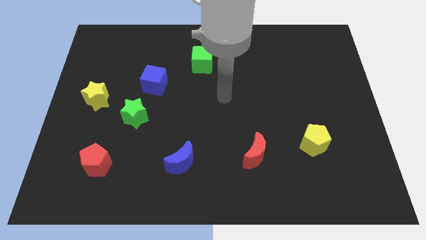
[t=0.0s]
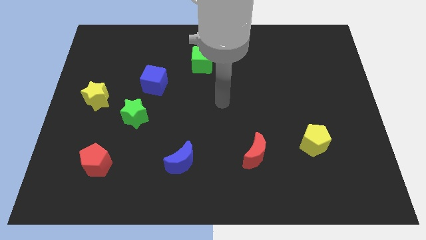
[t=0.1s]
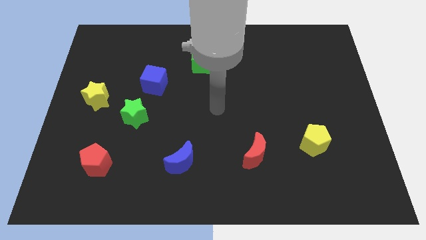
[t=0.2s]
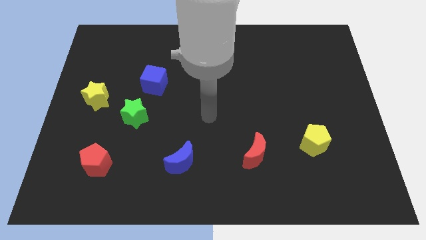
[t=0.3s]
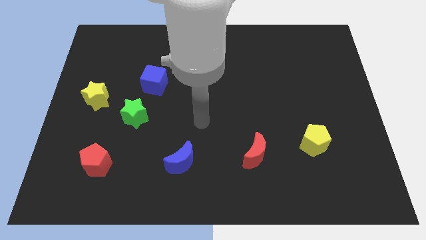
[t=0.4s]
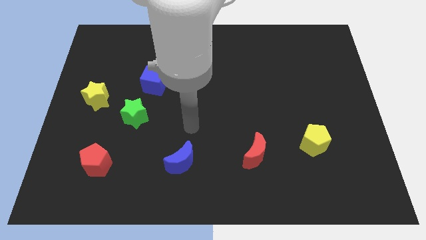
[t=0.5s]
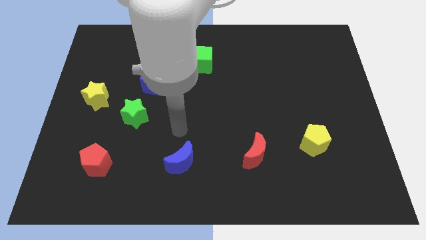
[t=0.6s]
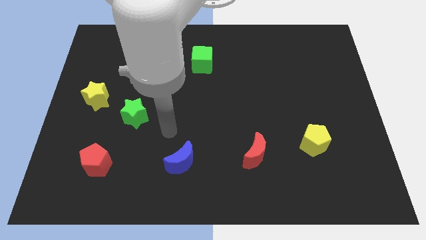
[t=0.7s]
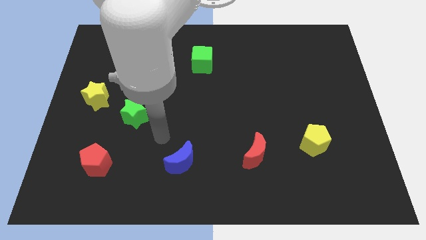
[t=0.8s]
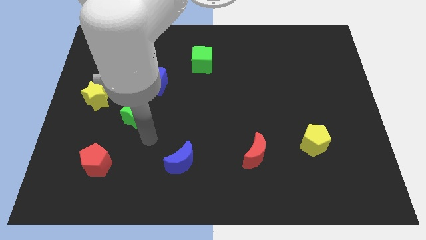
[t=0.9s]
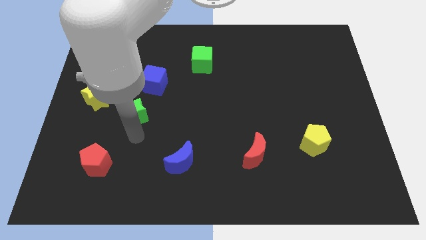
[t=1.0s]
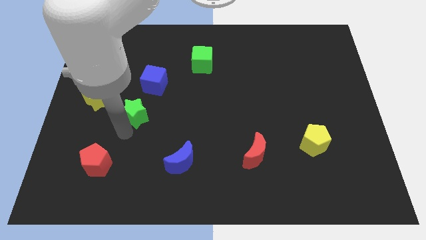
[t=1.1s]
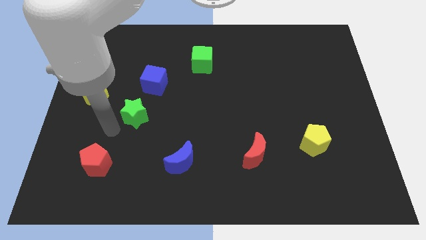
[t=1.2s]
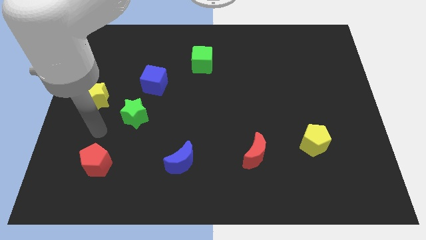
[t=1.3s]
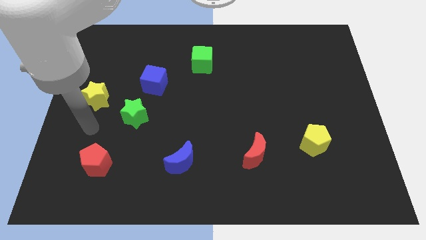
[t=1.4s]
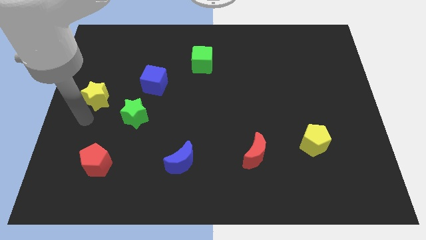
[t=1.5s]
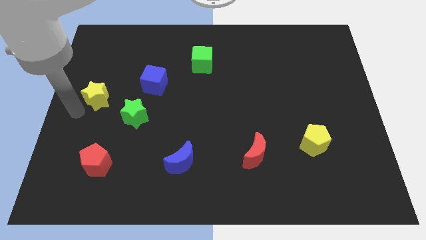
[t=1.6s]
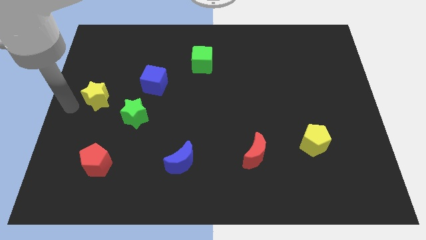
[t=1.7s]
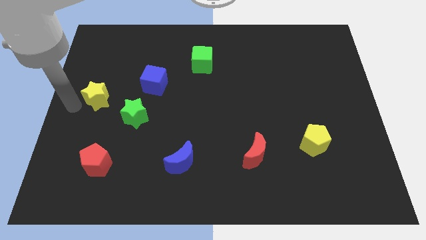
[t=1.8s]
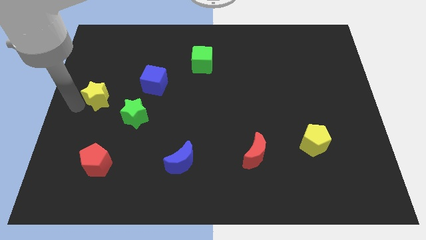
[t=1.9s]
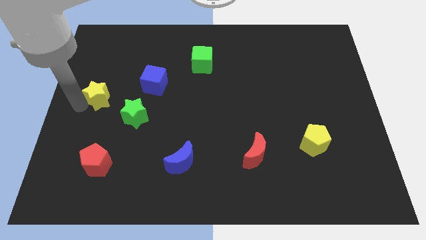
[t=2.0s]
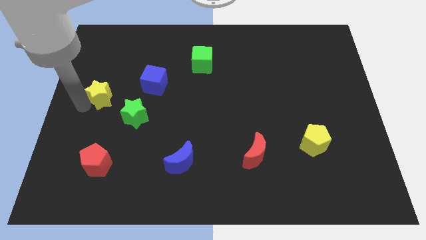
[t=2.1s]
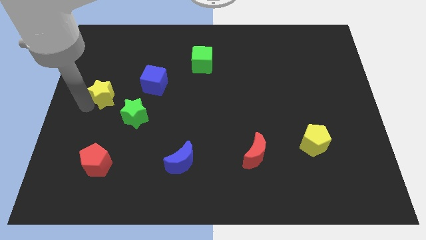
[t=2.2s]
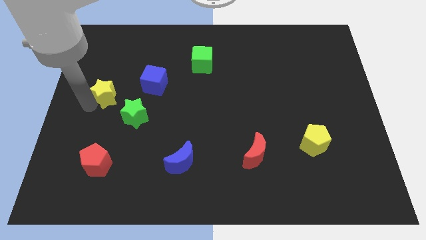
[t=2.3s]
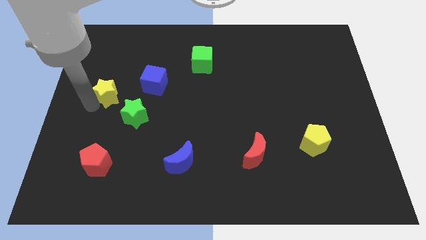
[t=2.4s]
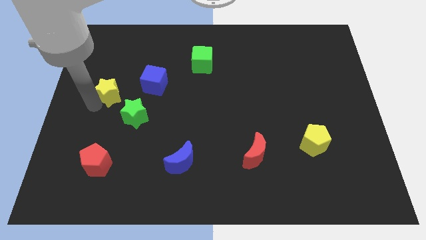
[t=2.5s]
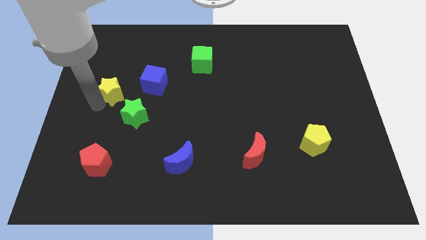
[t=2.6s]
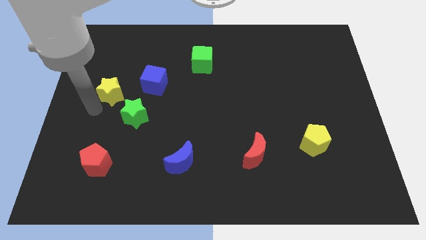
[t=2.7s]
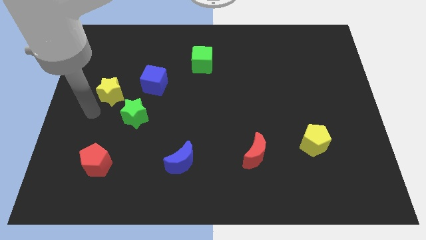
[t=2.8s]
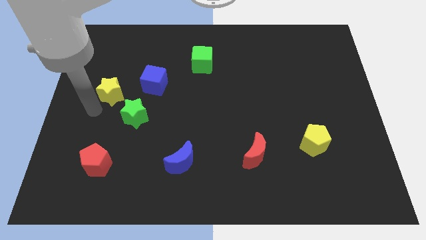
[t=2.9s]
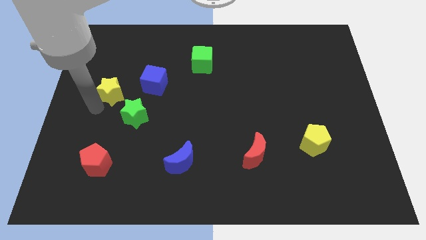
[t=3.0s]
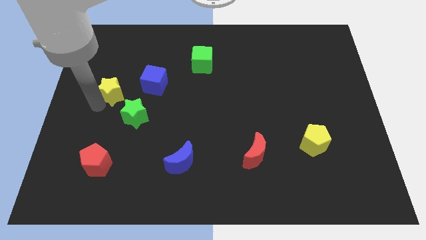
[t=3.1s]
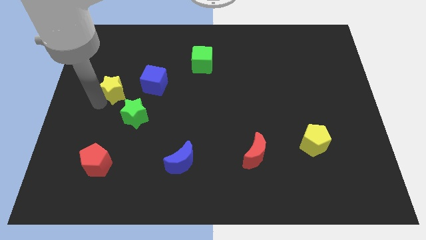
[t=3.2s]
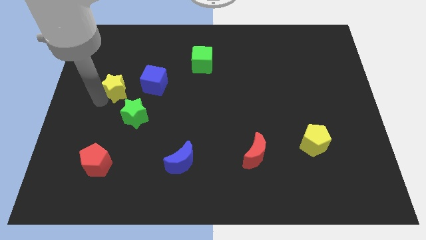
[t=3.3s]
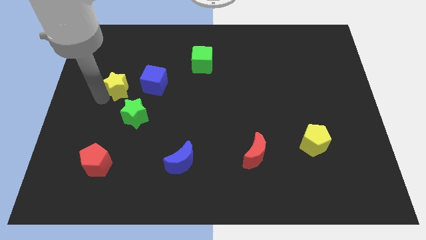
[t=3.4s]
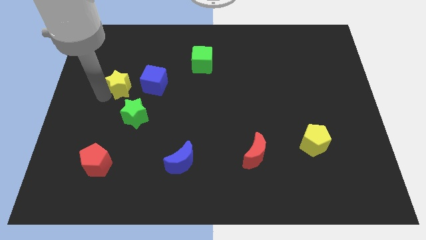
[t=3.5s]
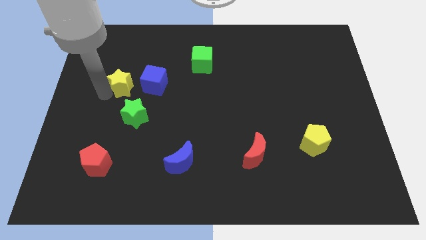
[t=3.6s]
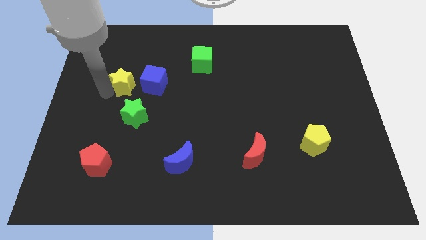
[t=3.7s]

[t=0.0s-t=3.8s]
slightly push the yellow star up and to the right diagonally

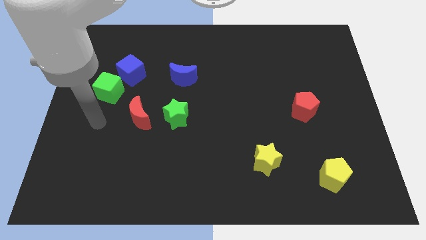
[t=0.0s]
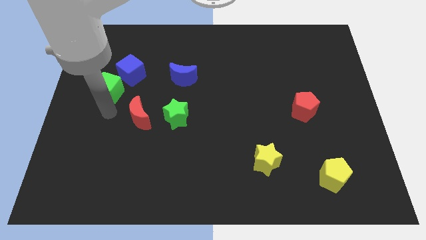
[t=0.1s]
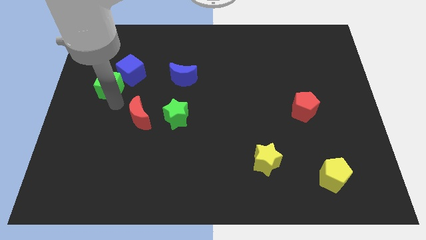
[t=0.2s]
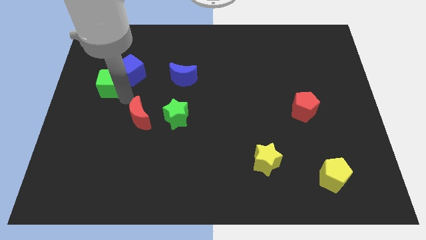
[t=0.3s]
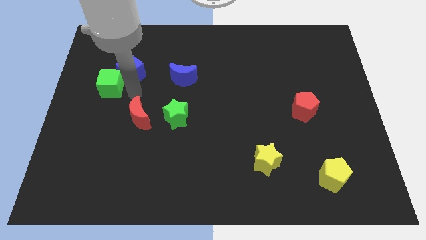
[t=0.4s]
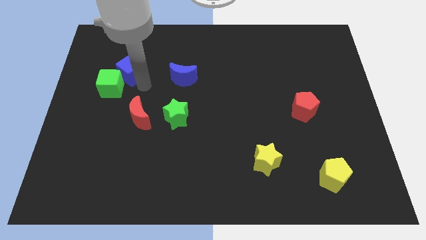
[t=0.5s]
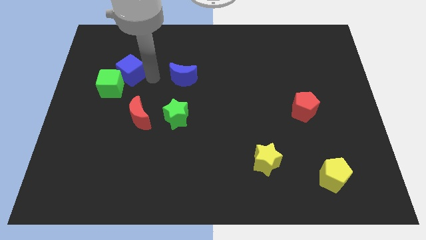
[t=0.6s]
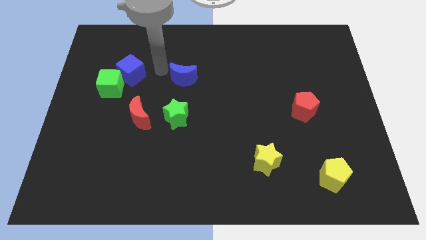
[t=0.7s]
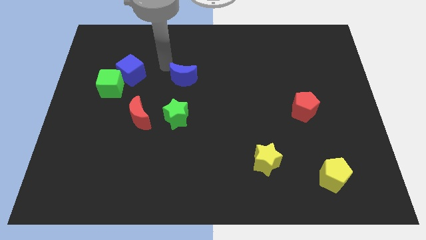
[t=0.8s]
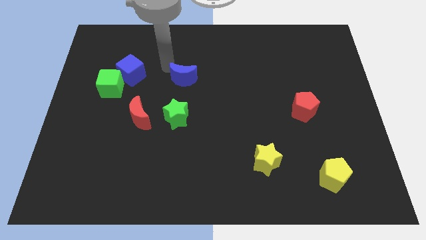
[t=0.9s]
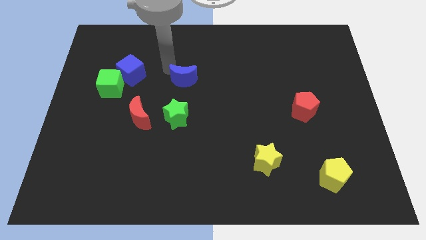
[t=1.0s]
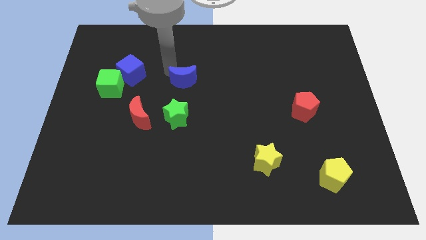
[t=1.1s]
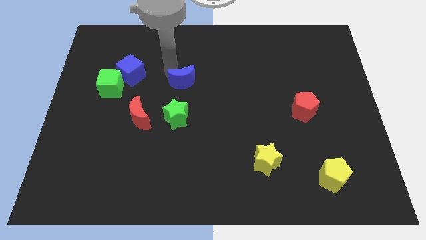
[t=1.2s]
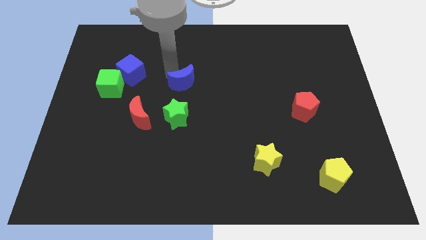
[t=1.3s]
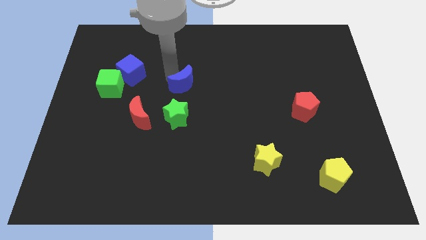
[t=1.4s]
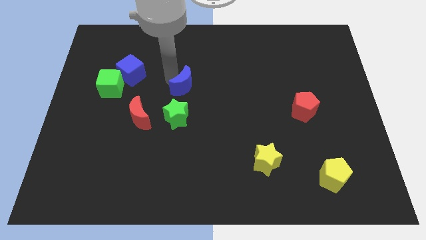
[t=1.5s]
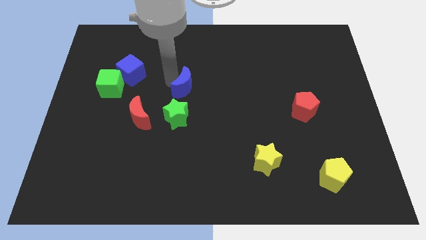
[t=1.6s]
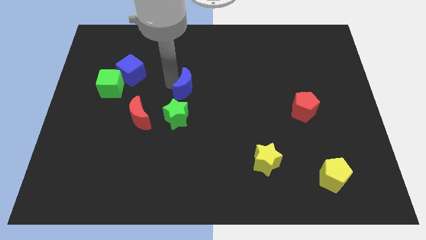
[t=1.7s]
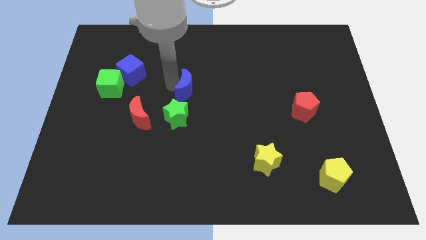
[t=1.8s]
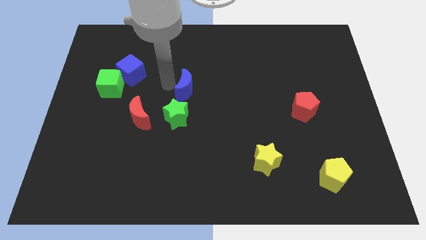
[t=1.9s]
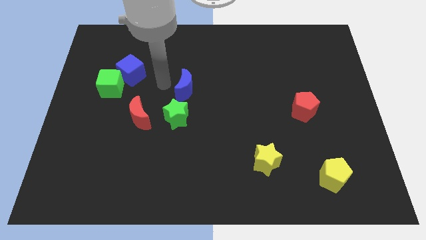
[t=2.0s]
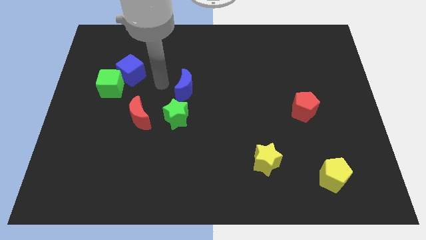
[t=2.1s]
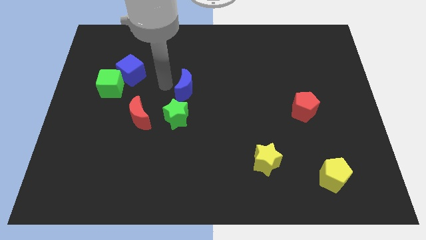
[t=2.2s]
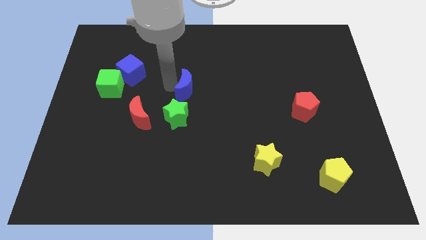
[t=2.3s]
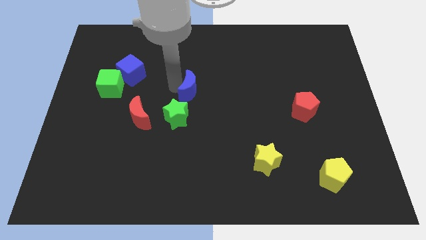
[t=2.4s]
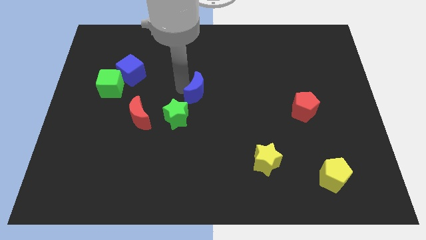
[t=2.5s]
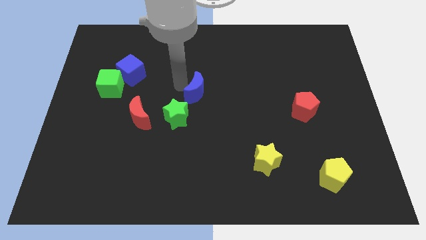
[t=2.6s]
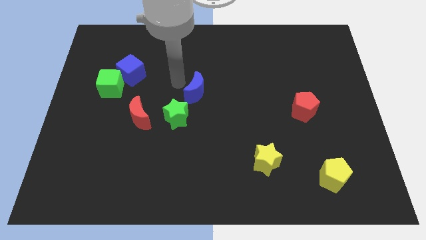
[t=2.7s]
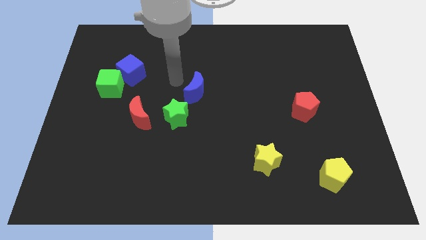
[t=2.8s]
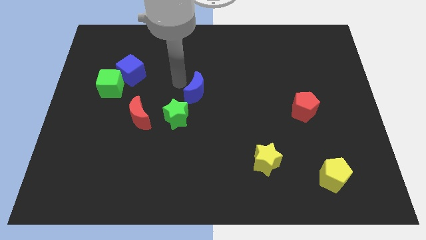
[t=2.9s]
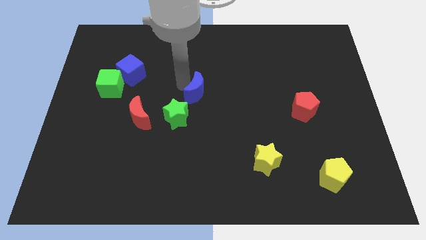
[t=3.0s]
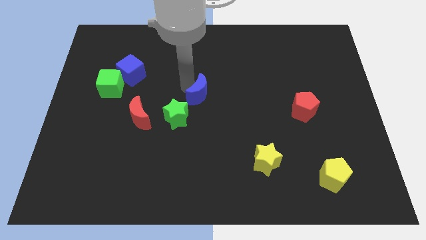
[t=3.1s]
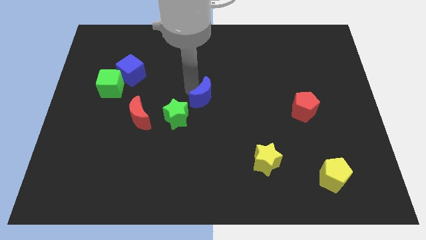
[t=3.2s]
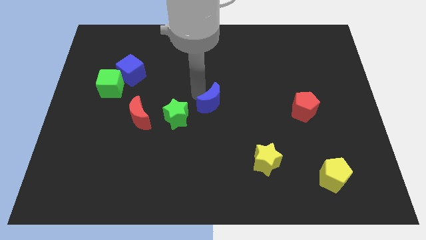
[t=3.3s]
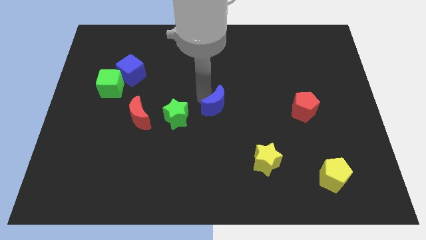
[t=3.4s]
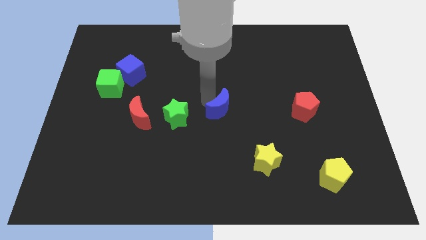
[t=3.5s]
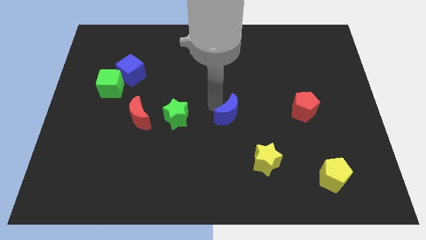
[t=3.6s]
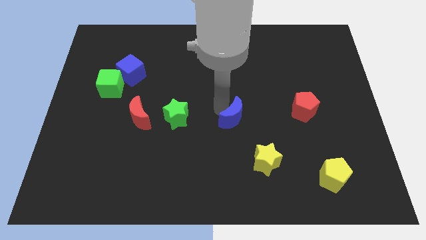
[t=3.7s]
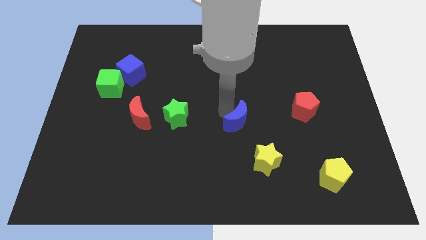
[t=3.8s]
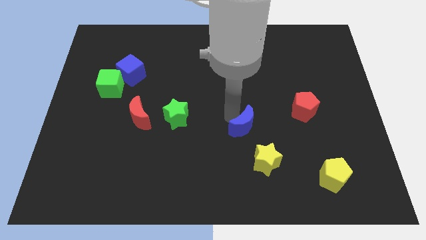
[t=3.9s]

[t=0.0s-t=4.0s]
slide the blue moon downwards and then to the right
